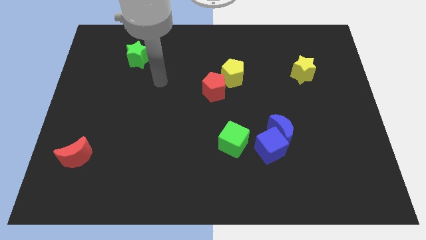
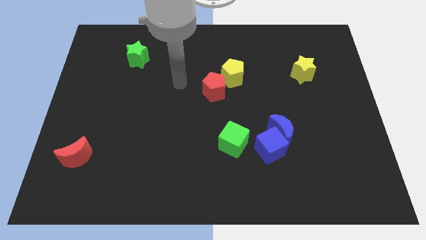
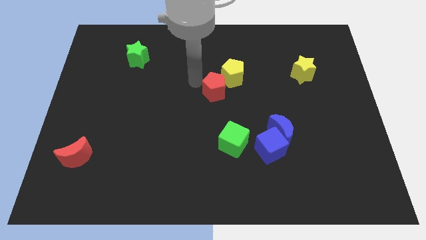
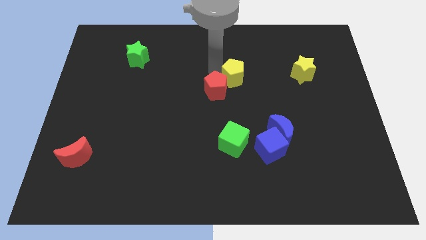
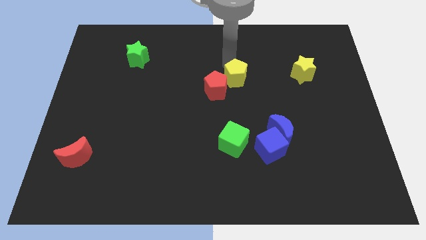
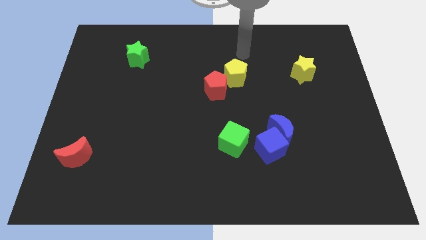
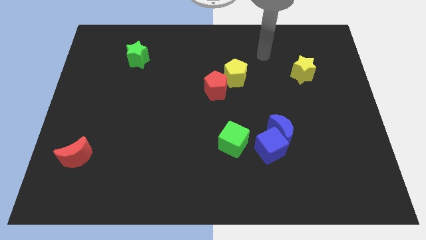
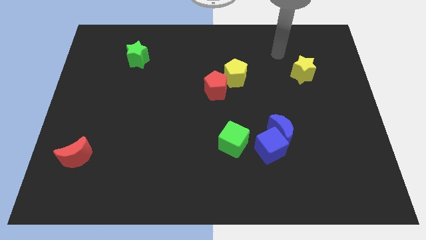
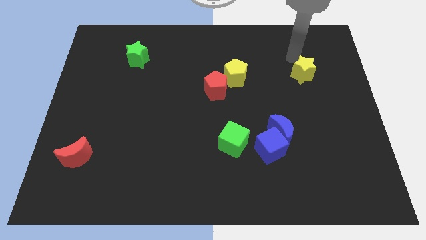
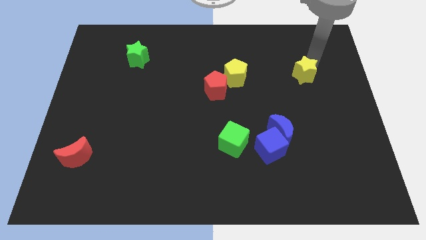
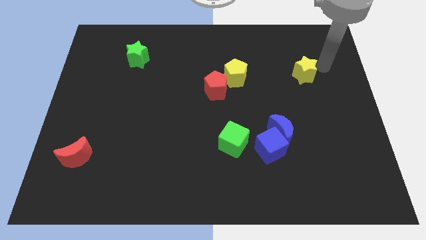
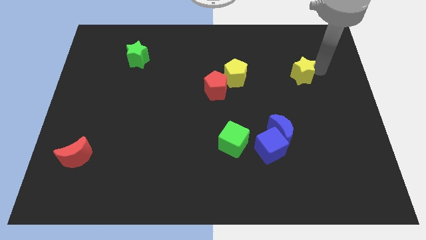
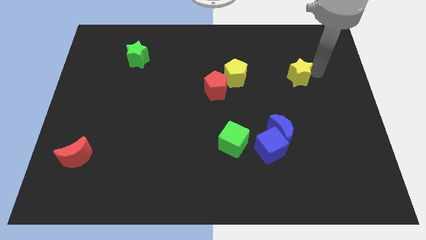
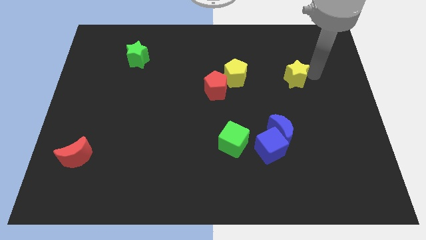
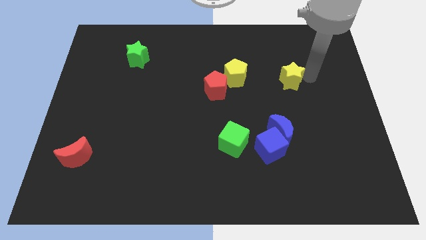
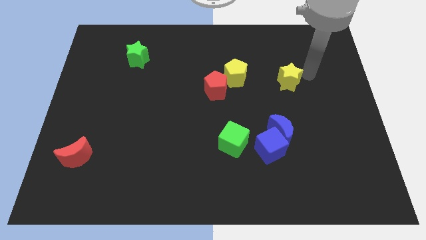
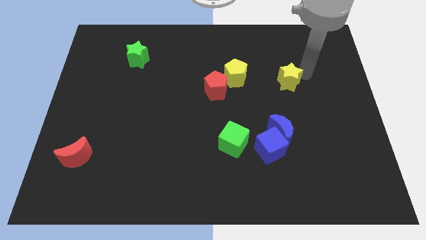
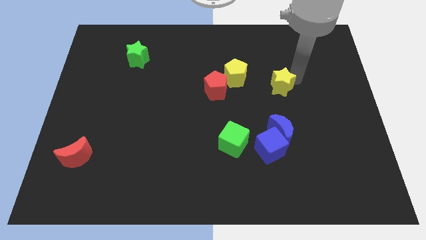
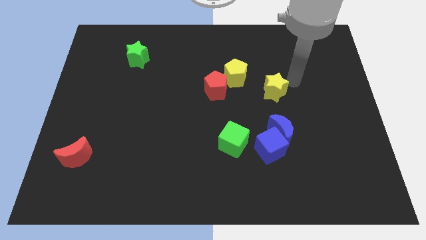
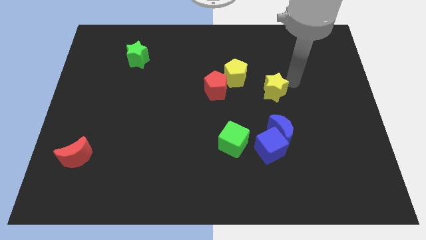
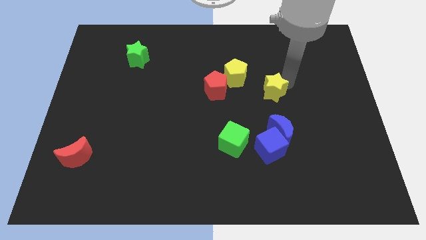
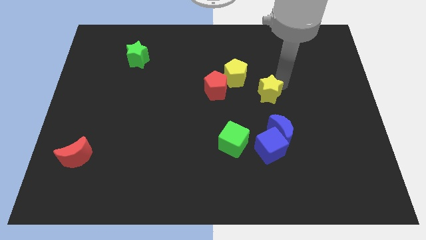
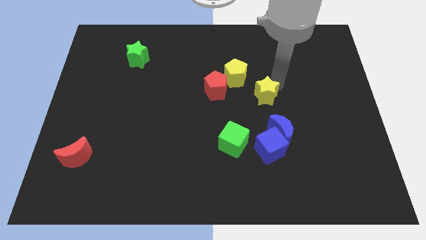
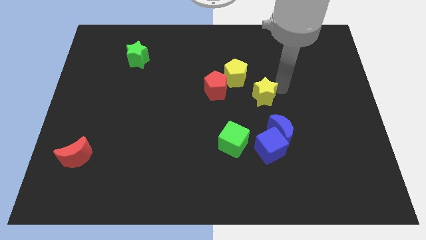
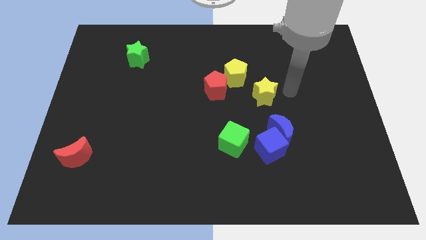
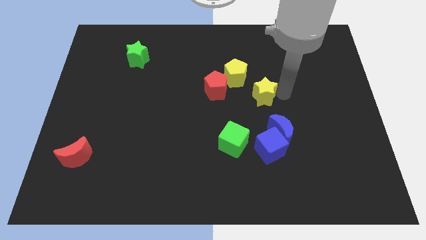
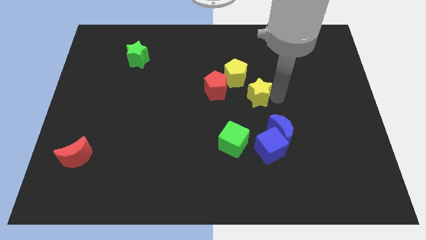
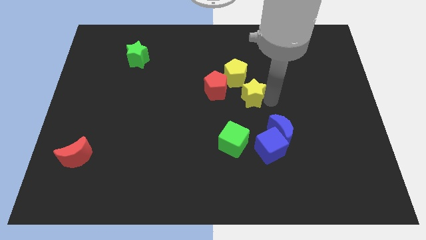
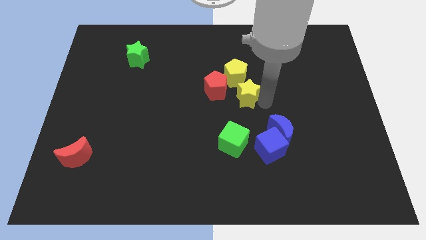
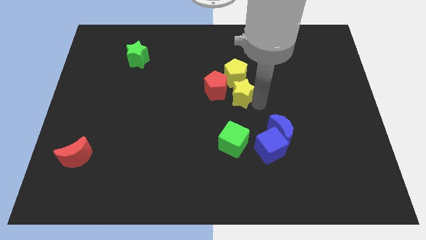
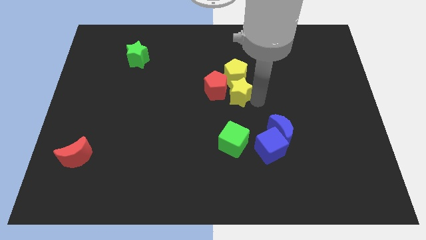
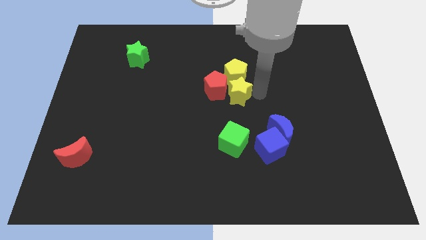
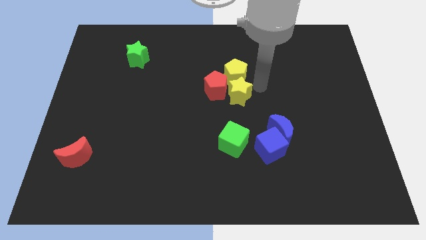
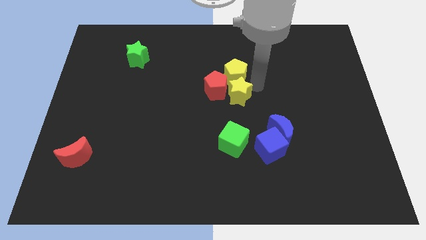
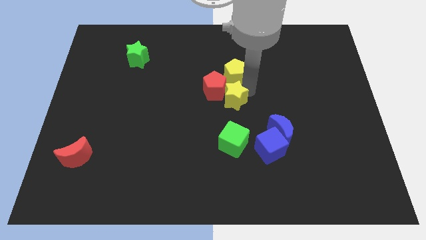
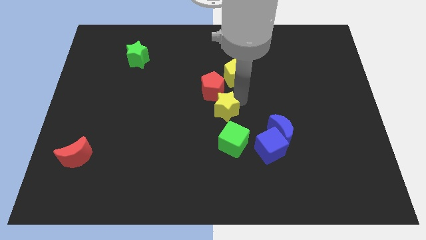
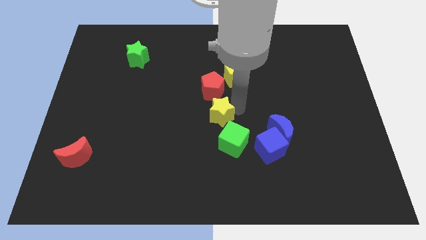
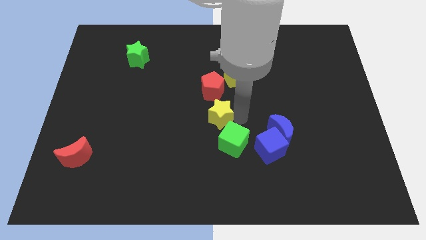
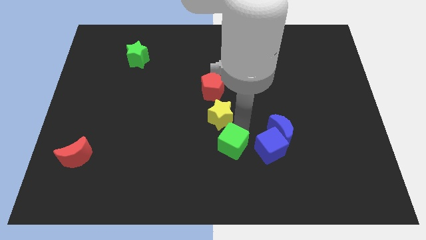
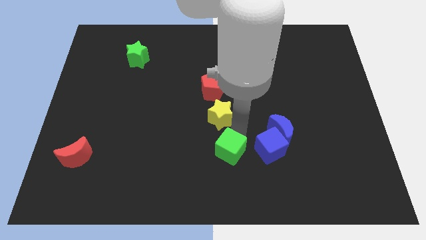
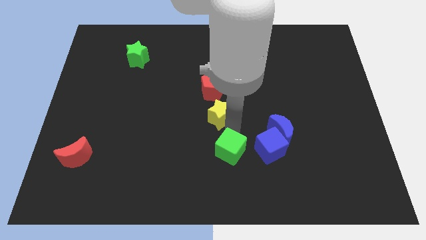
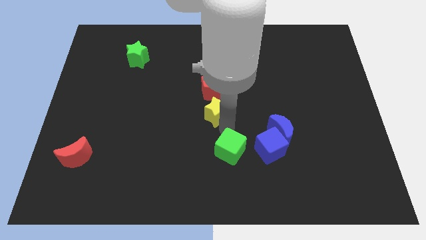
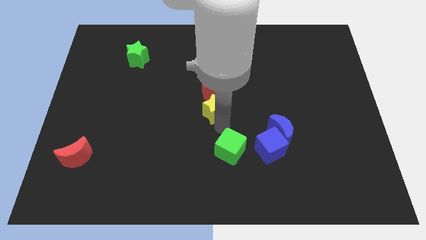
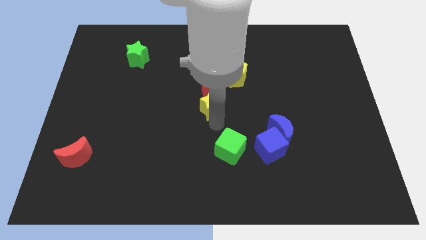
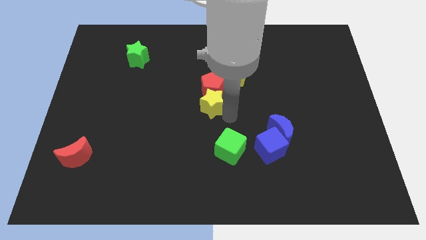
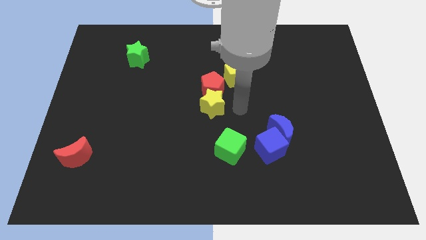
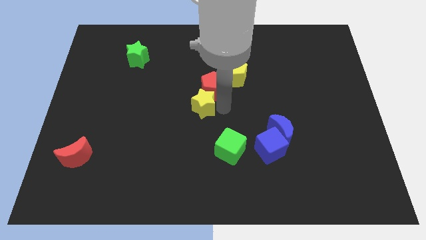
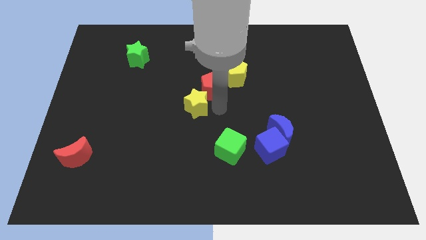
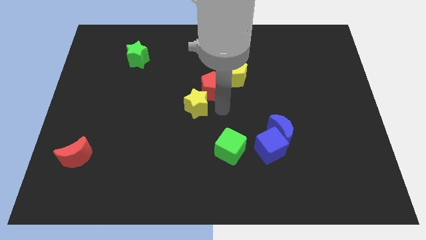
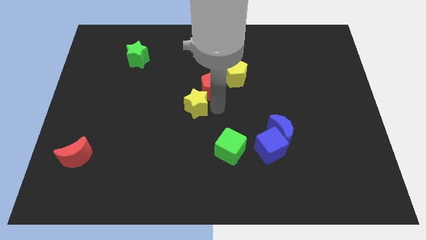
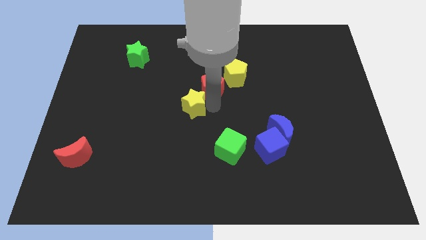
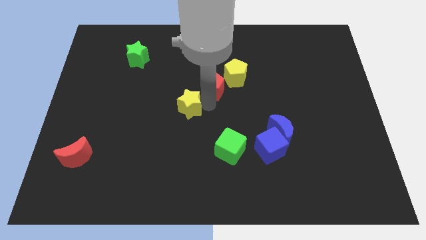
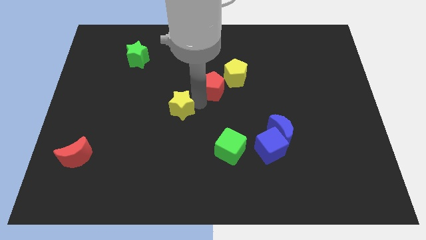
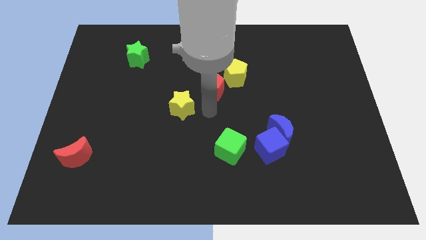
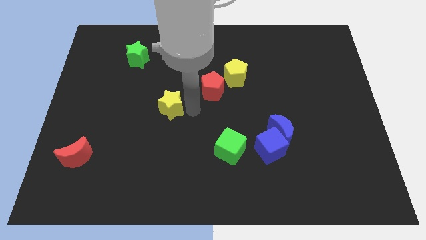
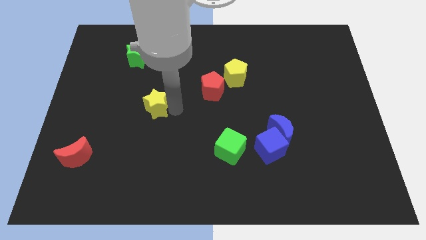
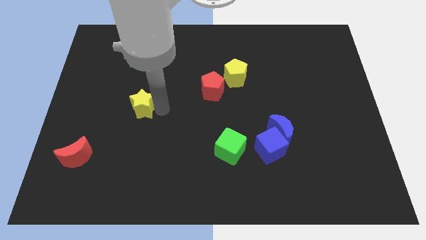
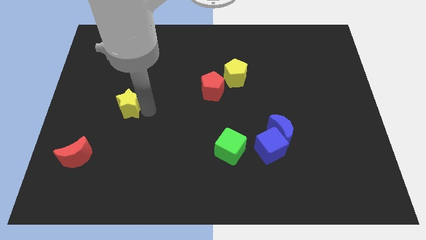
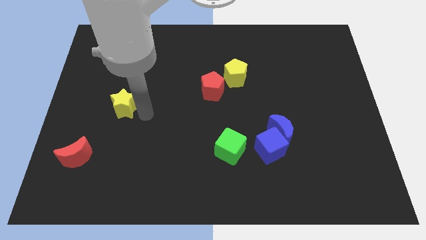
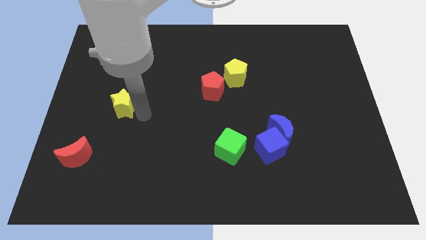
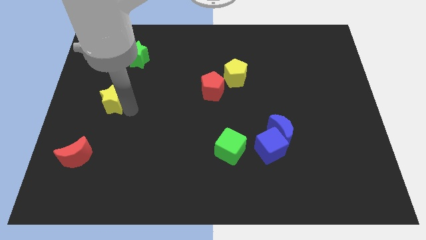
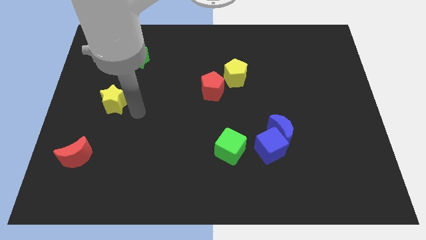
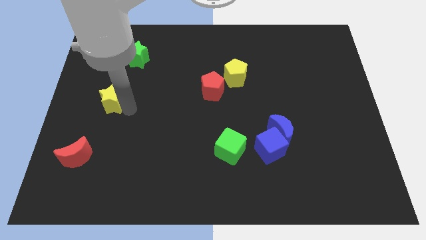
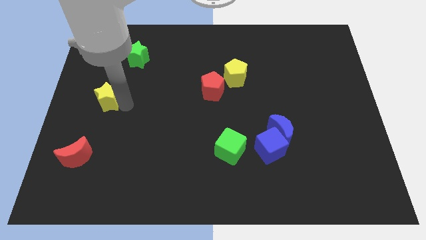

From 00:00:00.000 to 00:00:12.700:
put the yellow star to the center left

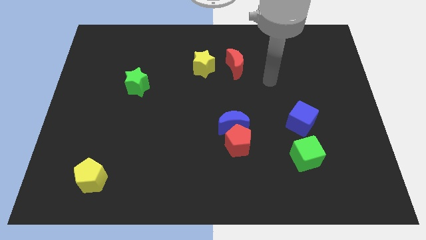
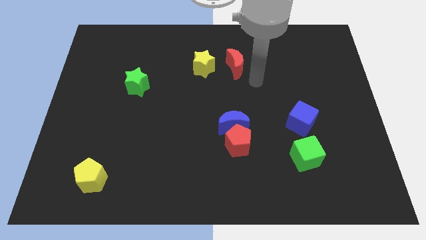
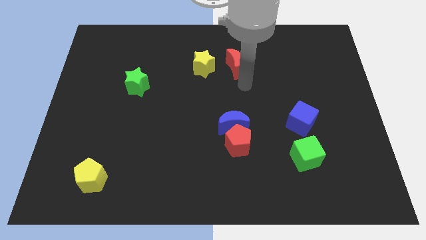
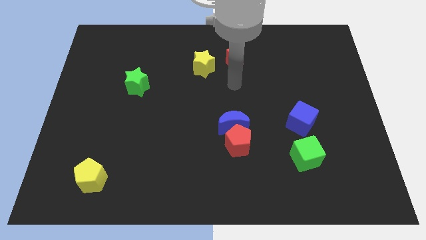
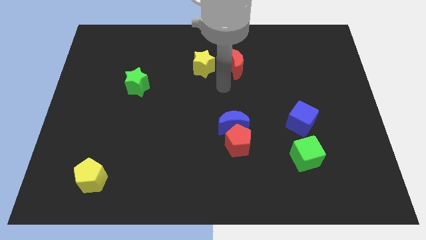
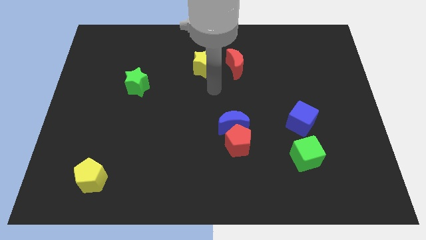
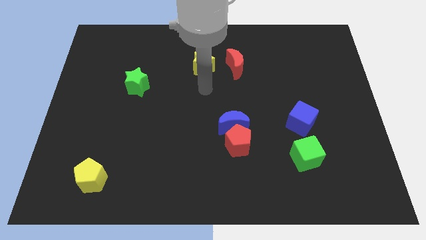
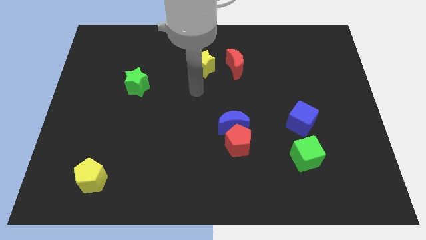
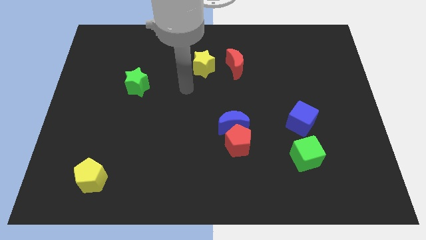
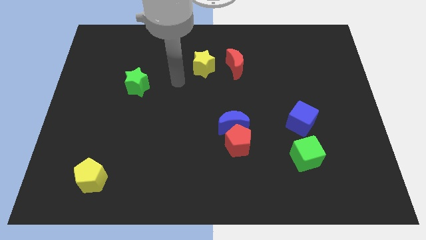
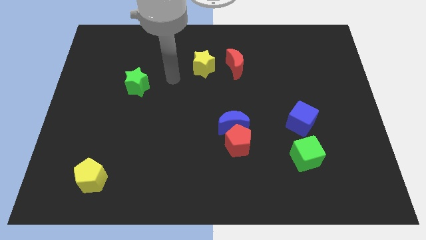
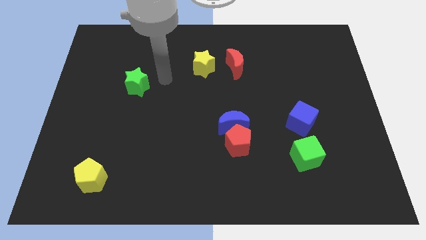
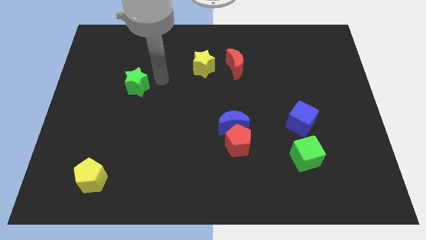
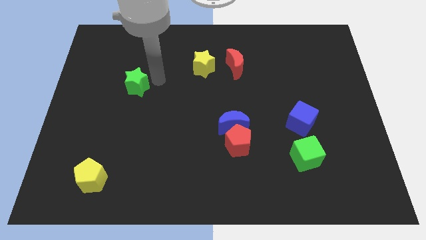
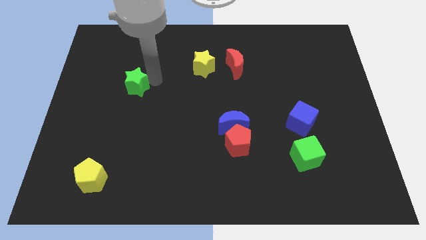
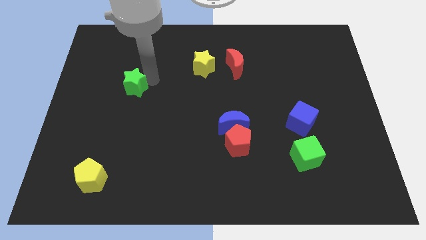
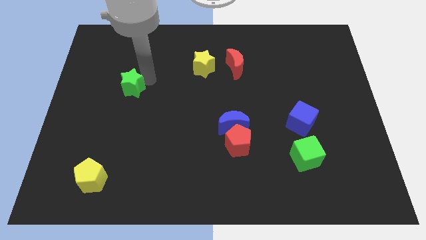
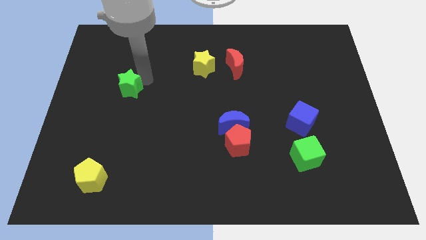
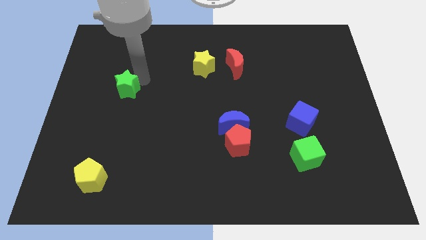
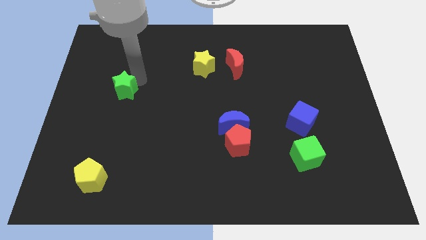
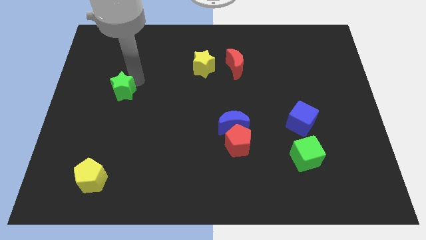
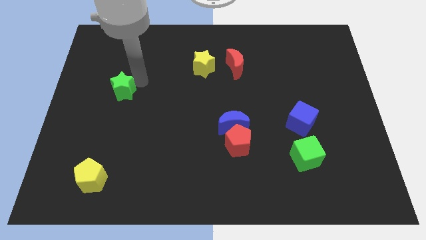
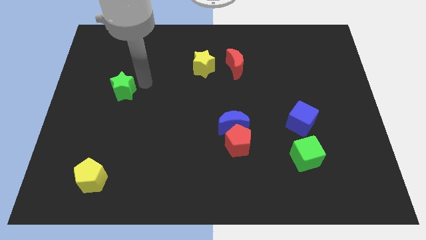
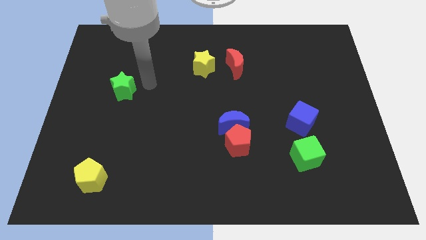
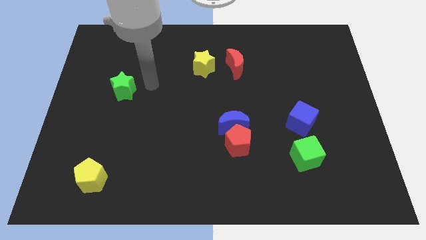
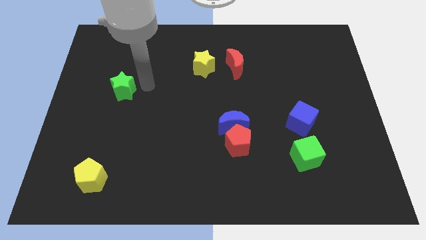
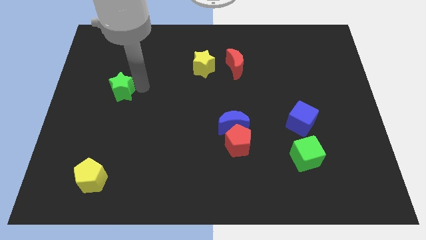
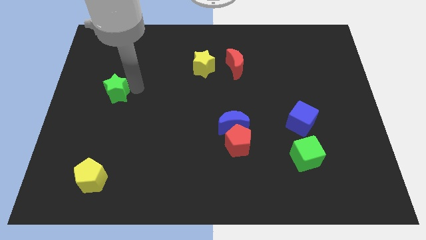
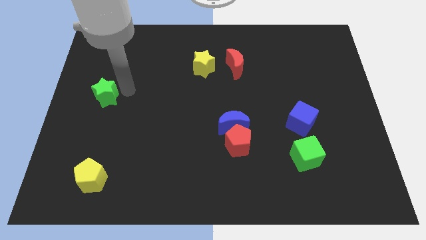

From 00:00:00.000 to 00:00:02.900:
push the green star to the left side of the board
